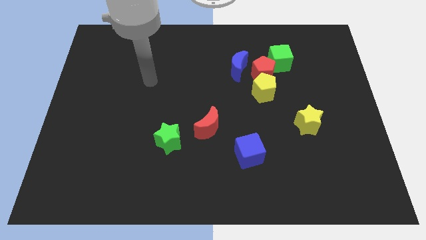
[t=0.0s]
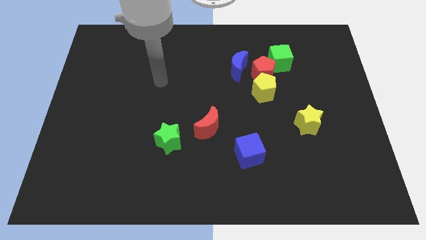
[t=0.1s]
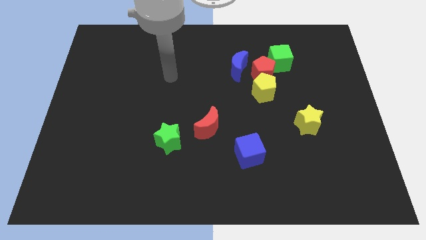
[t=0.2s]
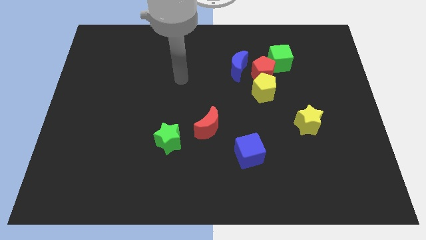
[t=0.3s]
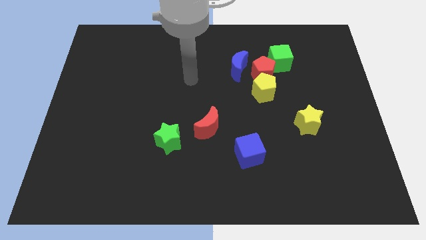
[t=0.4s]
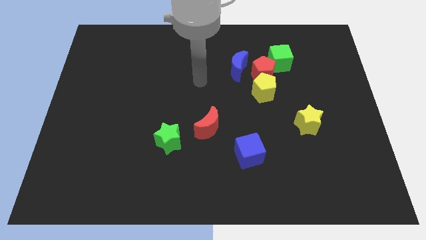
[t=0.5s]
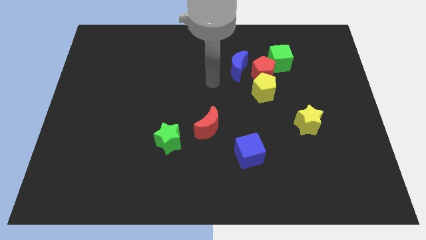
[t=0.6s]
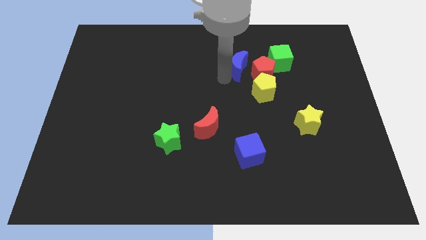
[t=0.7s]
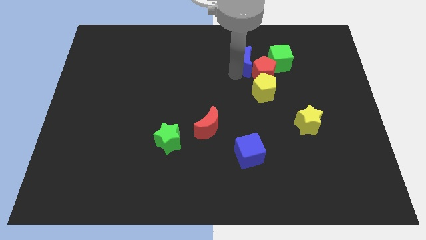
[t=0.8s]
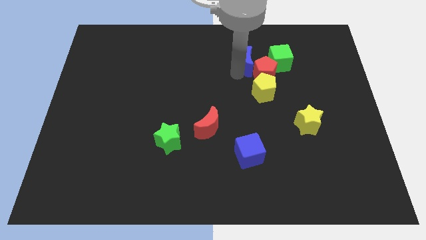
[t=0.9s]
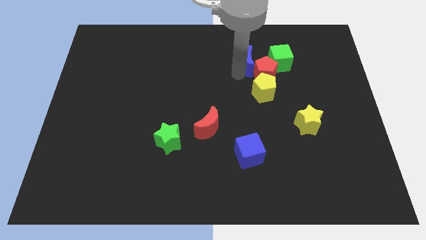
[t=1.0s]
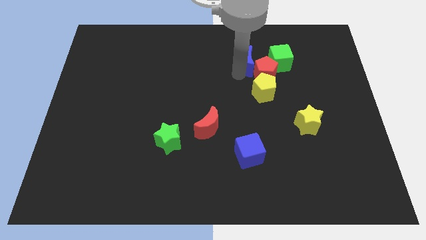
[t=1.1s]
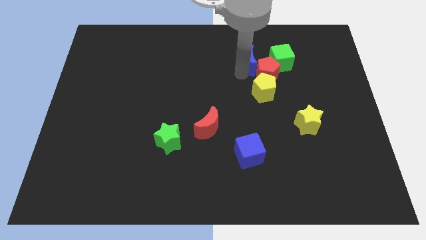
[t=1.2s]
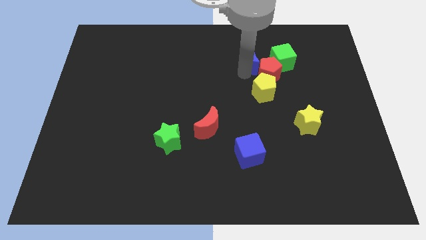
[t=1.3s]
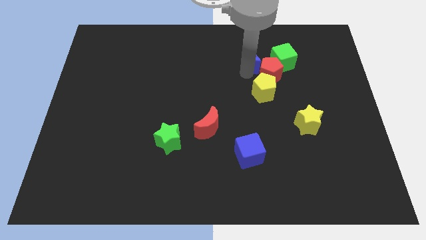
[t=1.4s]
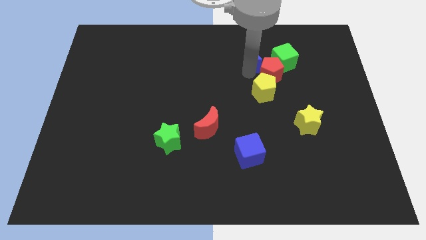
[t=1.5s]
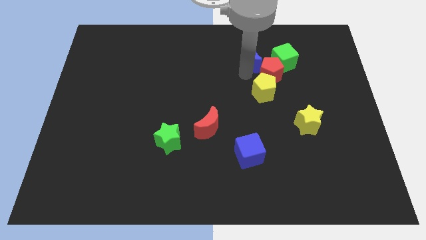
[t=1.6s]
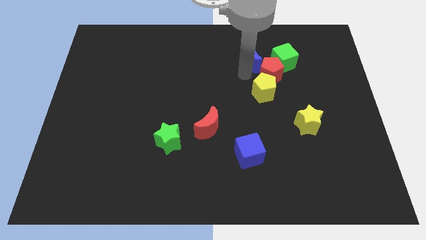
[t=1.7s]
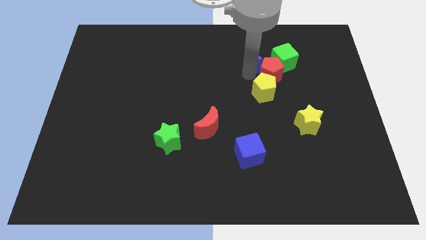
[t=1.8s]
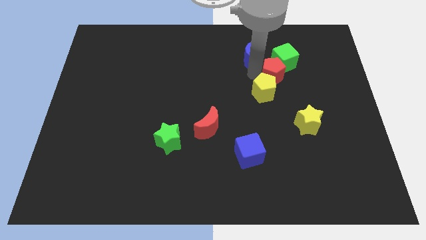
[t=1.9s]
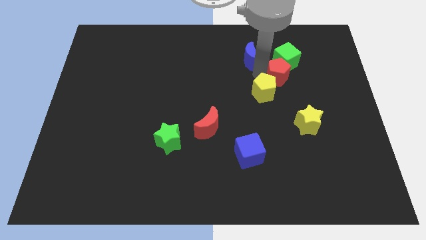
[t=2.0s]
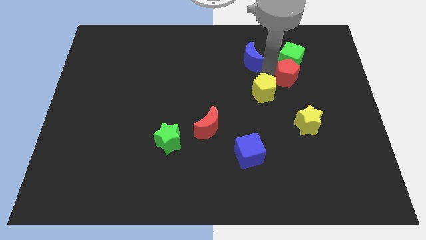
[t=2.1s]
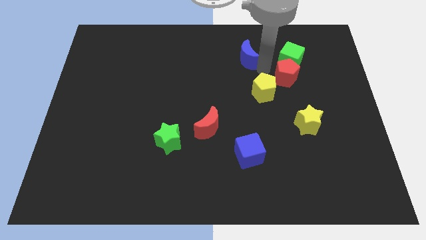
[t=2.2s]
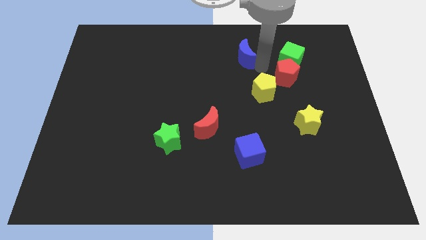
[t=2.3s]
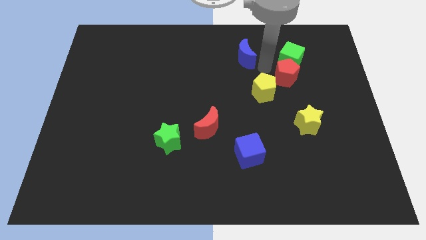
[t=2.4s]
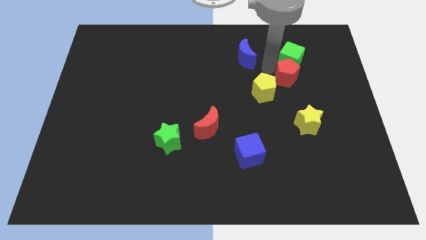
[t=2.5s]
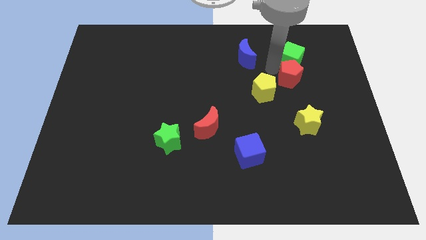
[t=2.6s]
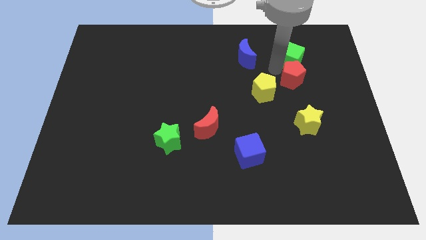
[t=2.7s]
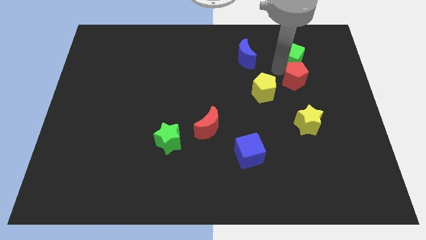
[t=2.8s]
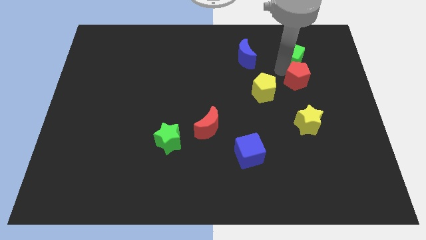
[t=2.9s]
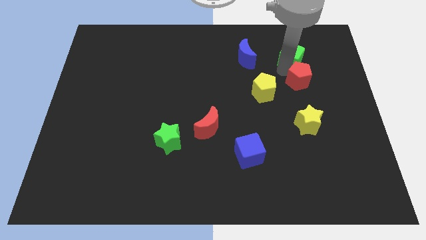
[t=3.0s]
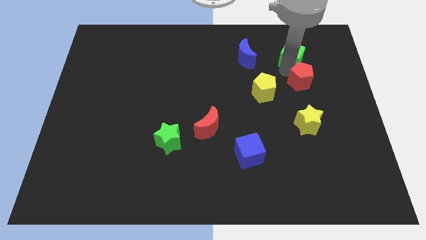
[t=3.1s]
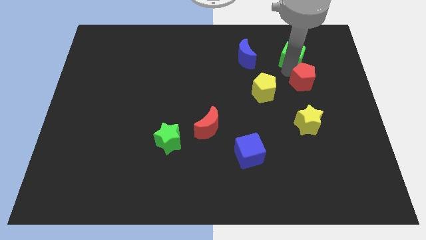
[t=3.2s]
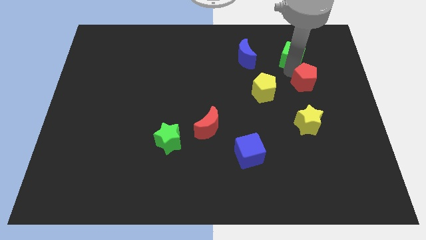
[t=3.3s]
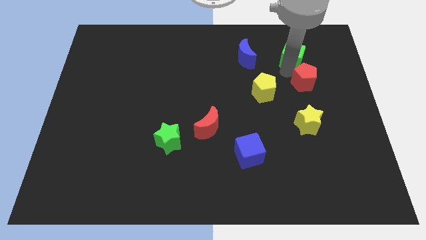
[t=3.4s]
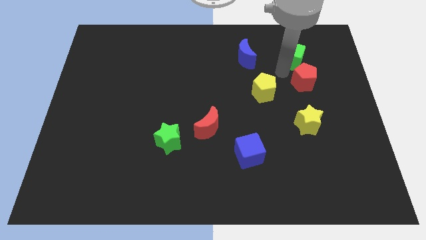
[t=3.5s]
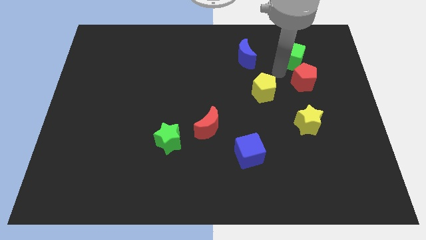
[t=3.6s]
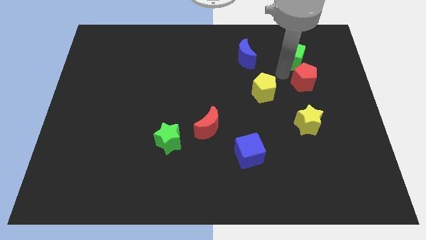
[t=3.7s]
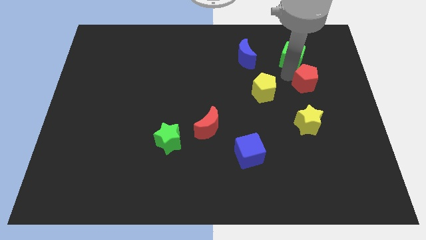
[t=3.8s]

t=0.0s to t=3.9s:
pull the red pentagon apart from the yellow pentagon, green cube, and blue moon

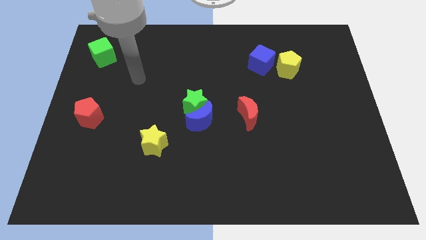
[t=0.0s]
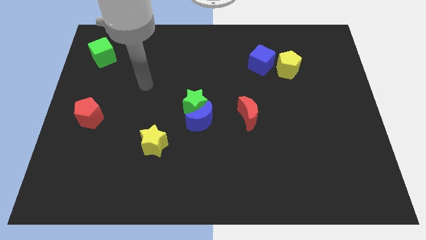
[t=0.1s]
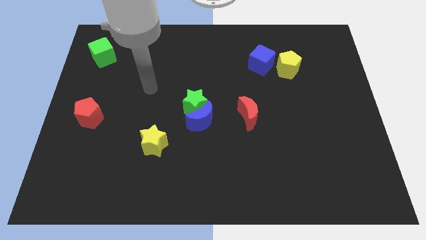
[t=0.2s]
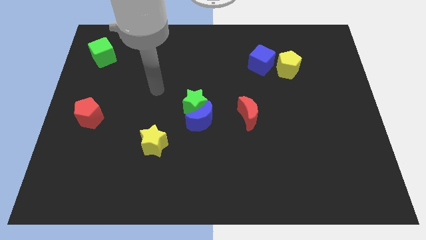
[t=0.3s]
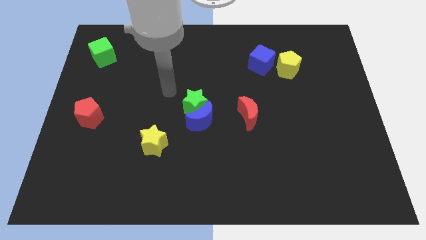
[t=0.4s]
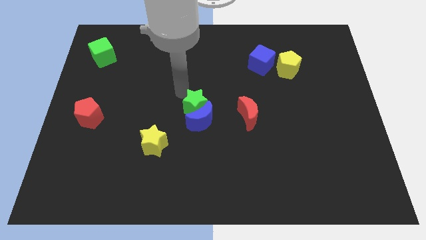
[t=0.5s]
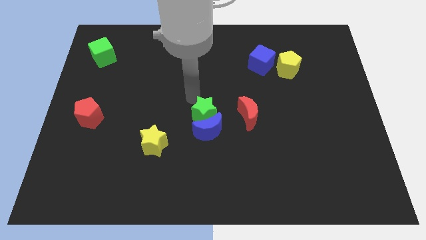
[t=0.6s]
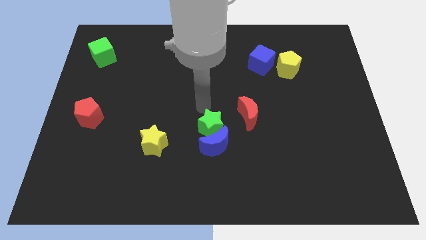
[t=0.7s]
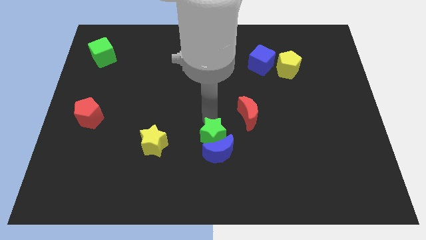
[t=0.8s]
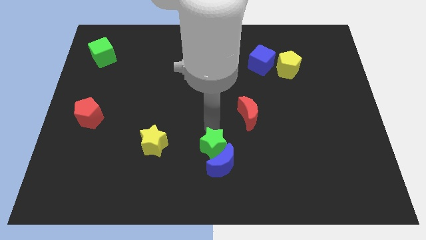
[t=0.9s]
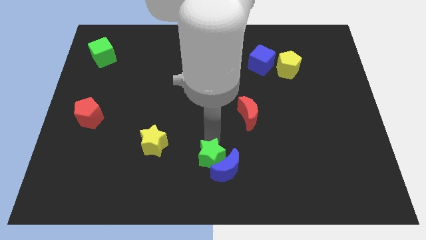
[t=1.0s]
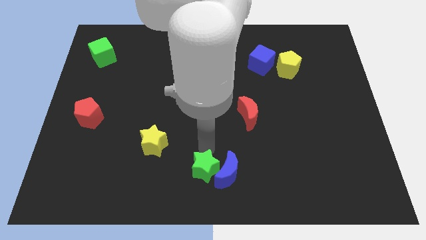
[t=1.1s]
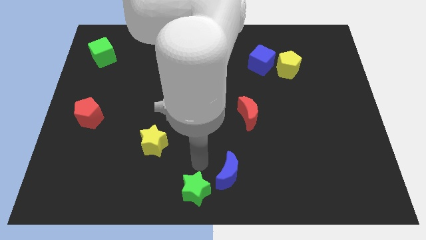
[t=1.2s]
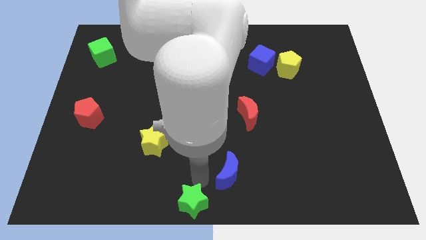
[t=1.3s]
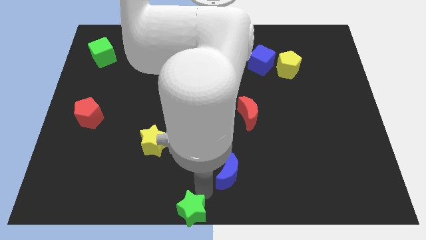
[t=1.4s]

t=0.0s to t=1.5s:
separate the blue moon from the green star

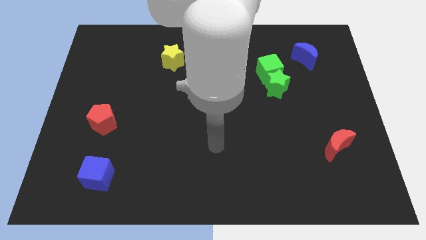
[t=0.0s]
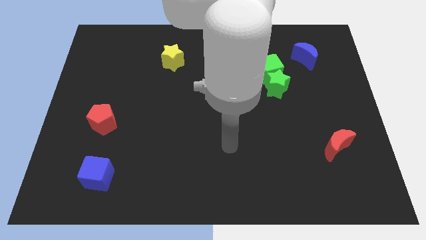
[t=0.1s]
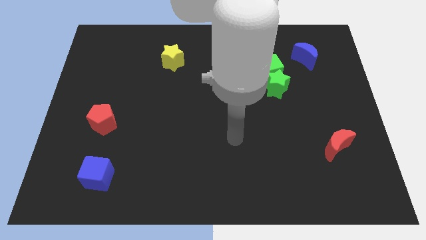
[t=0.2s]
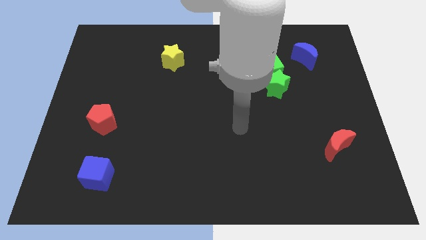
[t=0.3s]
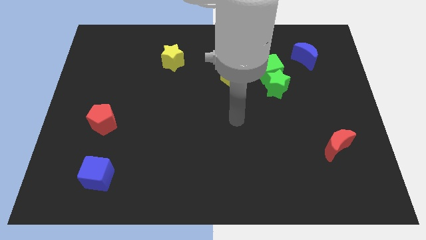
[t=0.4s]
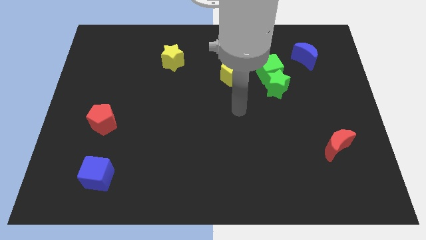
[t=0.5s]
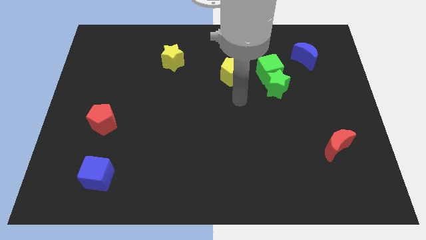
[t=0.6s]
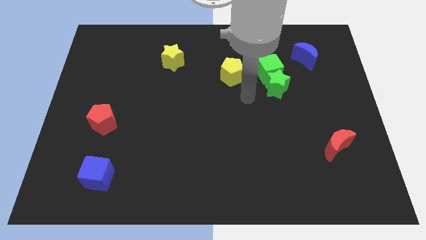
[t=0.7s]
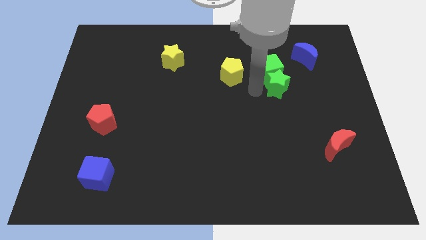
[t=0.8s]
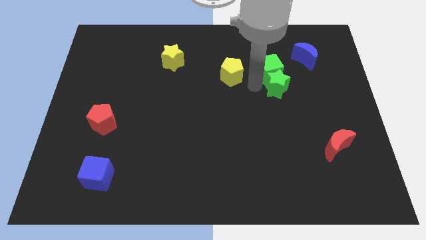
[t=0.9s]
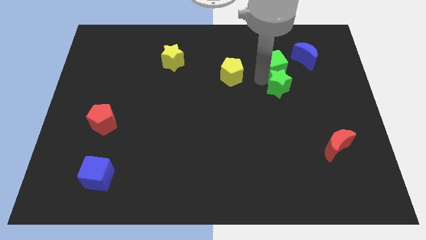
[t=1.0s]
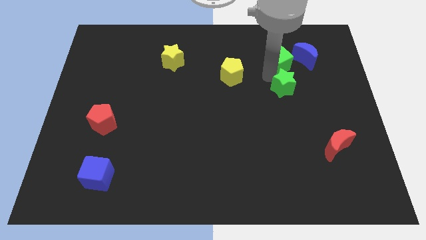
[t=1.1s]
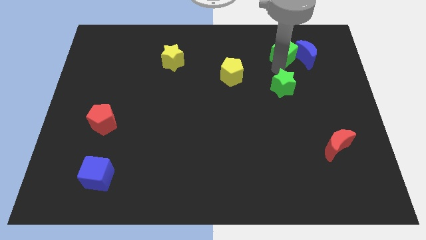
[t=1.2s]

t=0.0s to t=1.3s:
separate the green star from the green cube

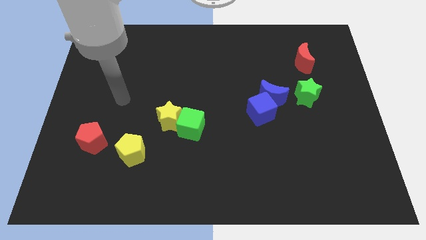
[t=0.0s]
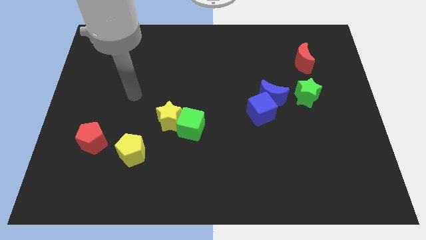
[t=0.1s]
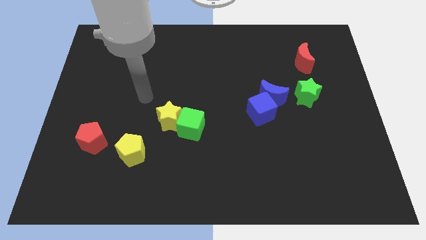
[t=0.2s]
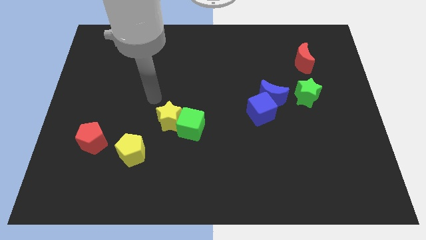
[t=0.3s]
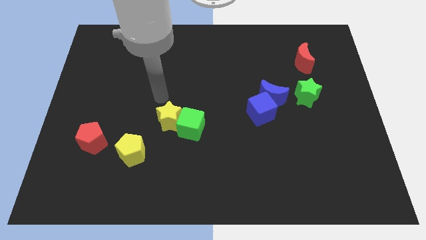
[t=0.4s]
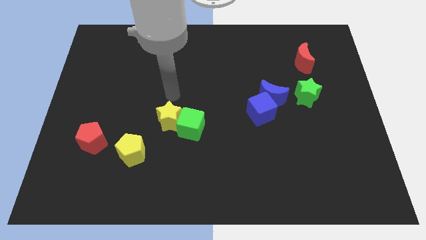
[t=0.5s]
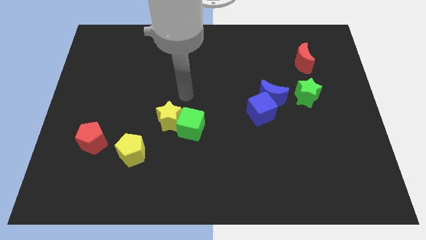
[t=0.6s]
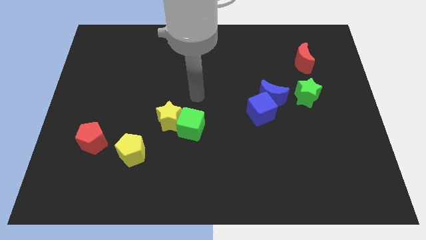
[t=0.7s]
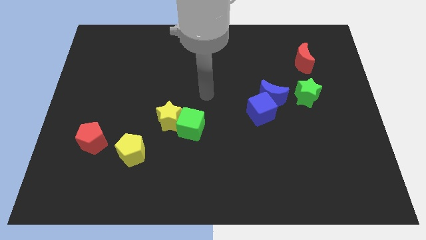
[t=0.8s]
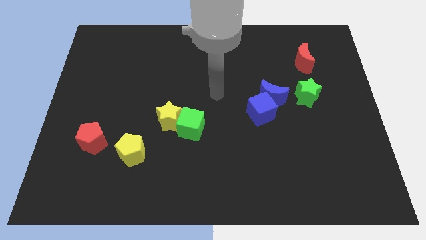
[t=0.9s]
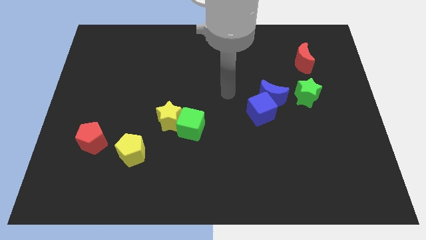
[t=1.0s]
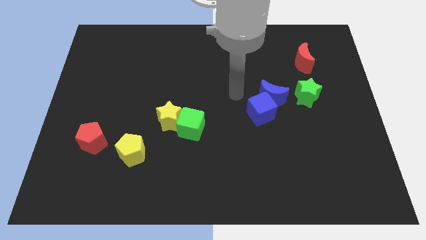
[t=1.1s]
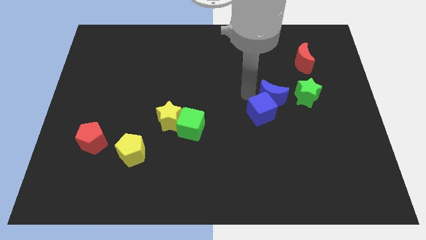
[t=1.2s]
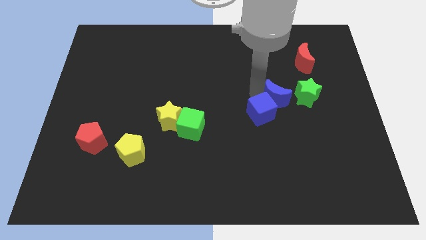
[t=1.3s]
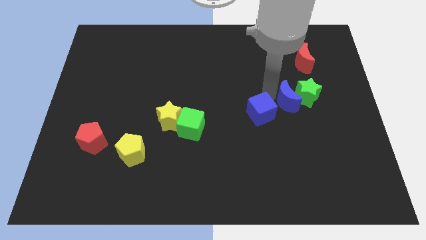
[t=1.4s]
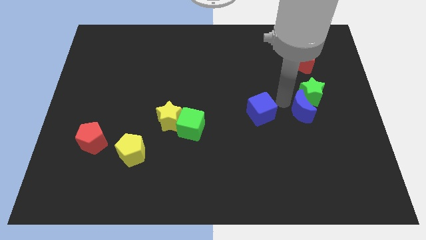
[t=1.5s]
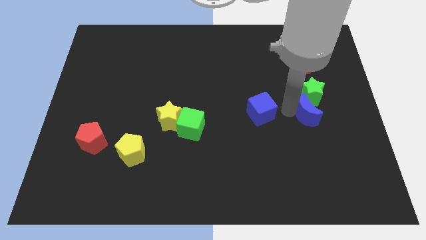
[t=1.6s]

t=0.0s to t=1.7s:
separate the blue cube from the blue moon

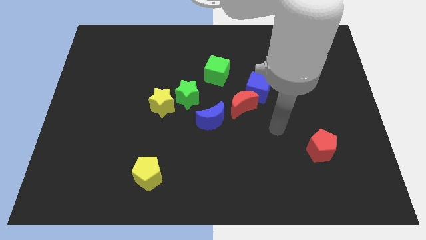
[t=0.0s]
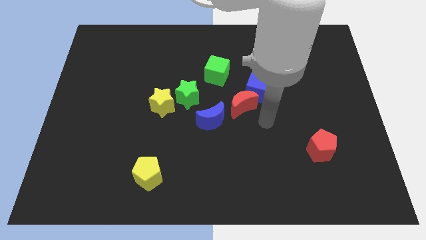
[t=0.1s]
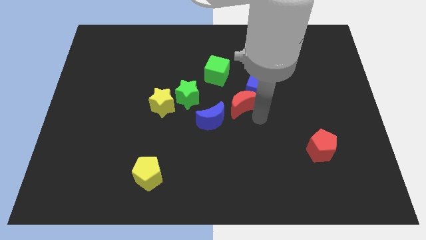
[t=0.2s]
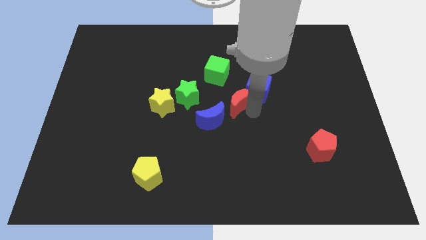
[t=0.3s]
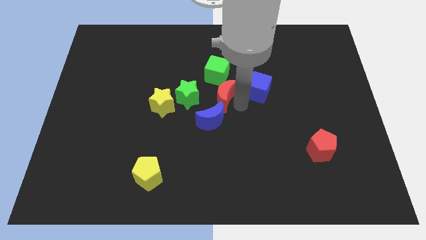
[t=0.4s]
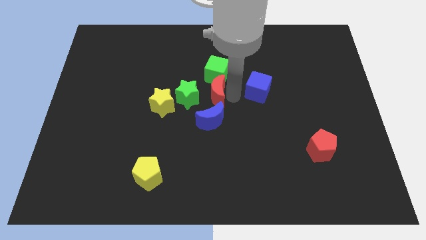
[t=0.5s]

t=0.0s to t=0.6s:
move the blue cube away from the red moon

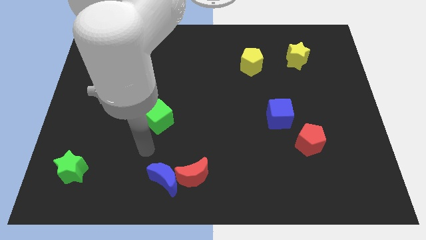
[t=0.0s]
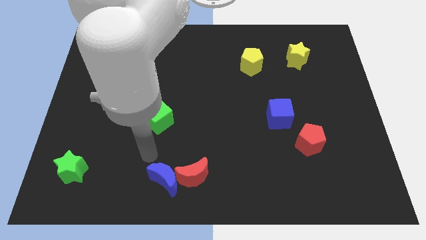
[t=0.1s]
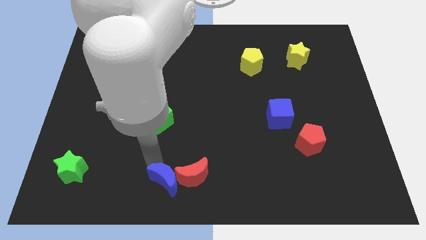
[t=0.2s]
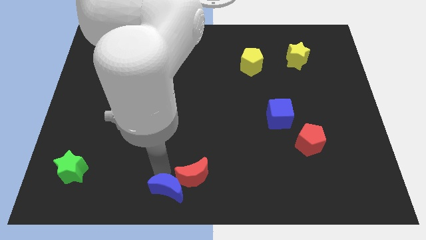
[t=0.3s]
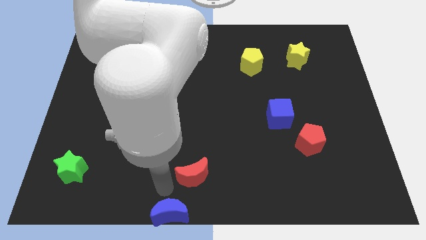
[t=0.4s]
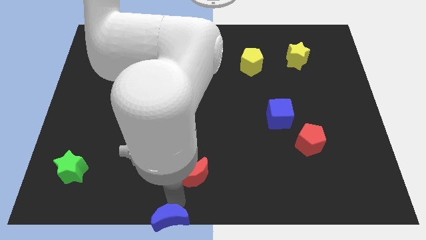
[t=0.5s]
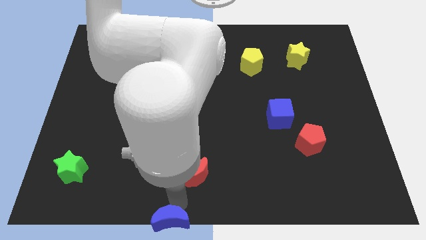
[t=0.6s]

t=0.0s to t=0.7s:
move the red moon away from the blue moon
